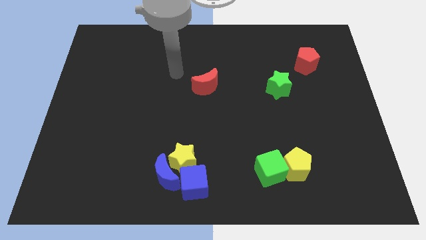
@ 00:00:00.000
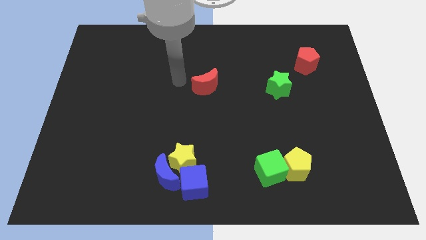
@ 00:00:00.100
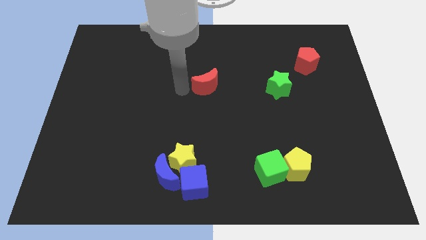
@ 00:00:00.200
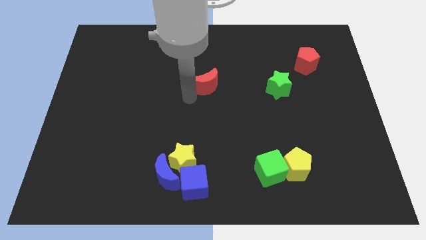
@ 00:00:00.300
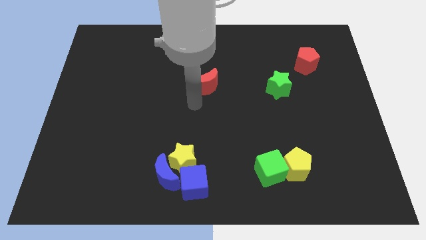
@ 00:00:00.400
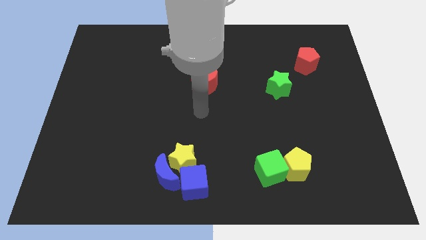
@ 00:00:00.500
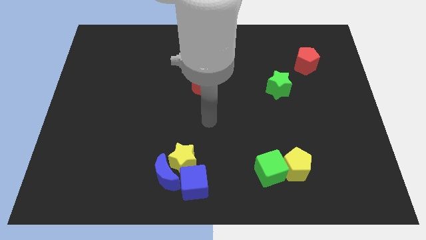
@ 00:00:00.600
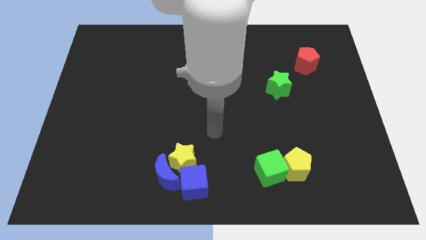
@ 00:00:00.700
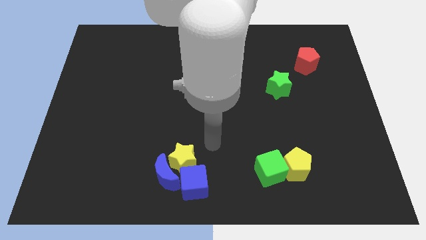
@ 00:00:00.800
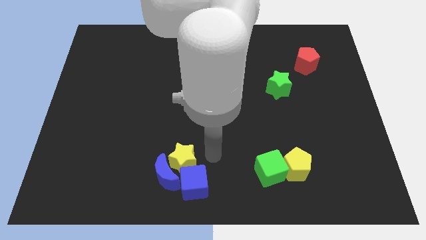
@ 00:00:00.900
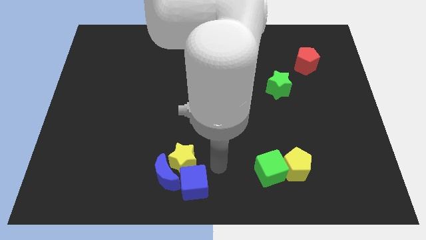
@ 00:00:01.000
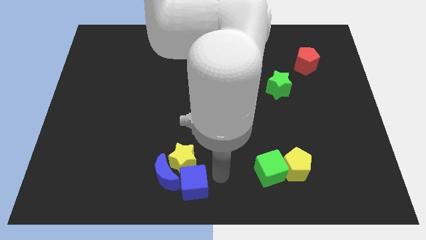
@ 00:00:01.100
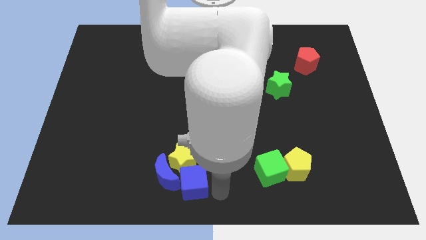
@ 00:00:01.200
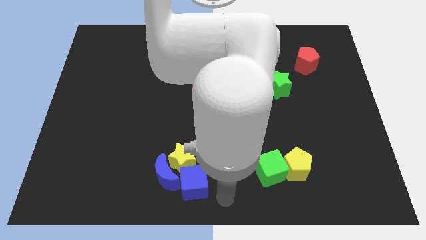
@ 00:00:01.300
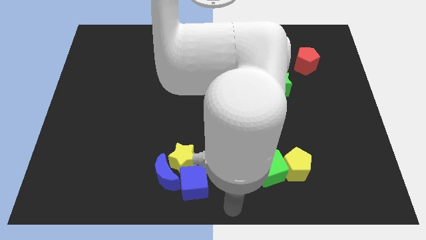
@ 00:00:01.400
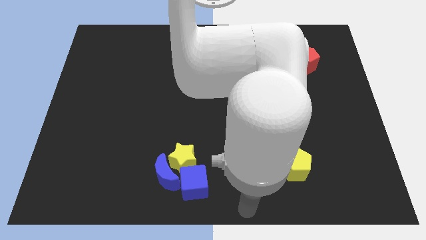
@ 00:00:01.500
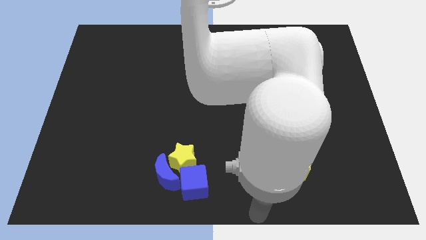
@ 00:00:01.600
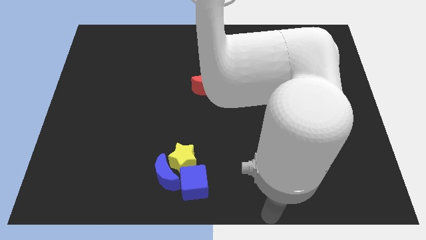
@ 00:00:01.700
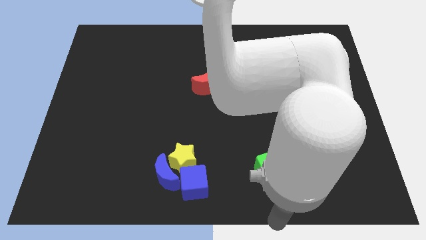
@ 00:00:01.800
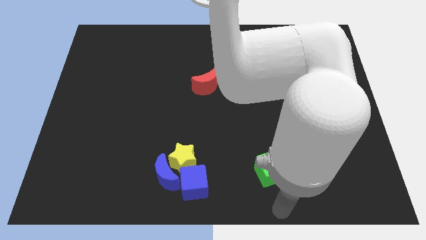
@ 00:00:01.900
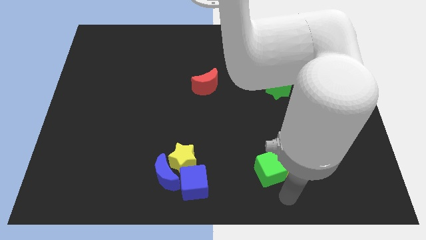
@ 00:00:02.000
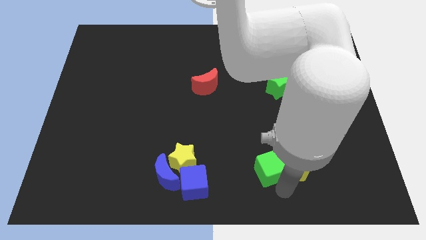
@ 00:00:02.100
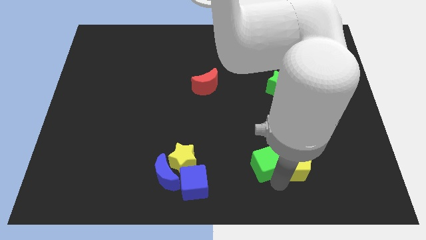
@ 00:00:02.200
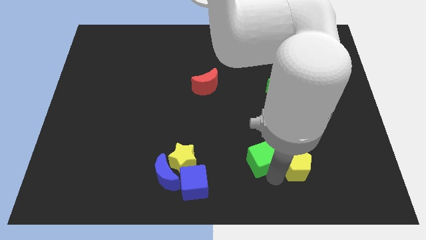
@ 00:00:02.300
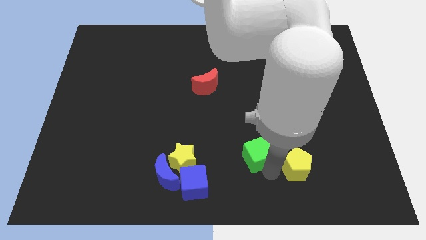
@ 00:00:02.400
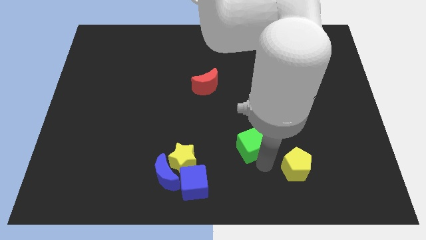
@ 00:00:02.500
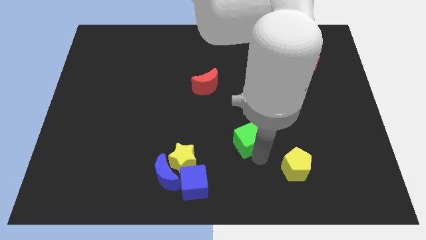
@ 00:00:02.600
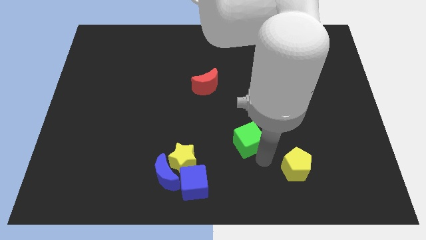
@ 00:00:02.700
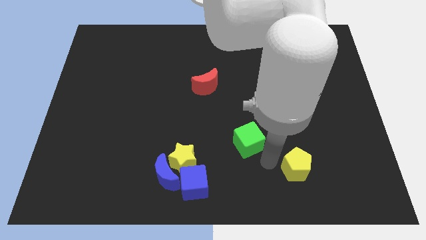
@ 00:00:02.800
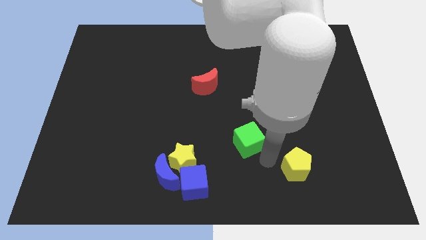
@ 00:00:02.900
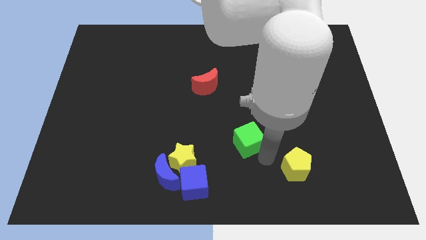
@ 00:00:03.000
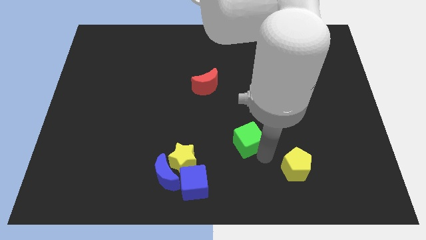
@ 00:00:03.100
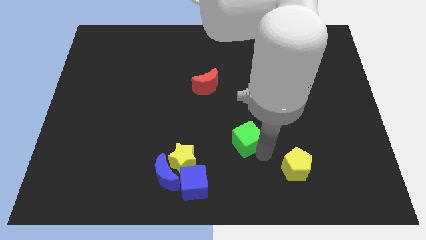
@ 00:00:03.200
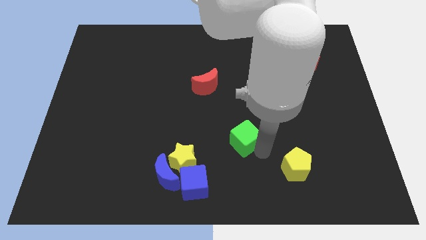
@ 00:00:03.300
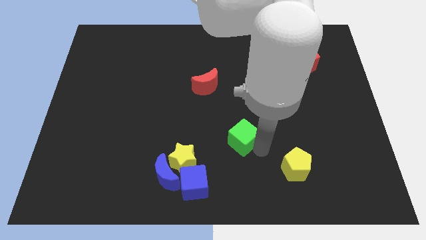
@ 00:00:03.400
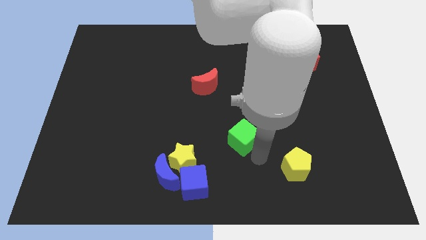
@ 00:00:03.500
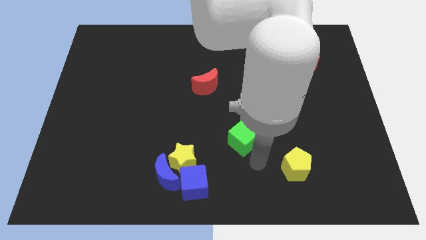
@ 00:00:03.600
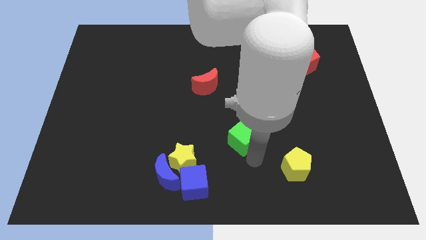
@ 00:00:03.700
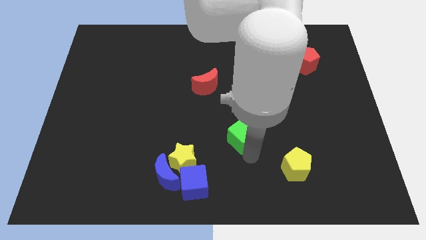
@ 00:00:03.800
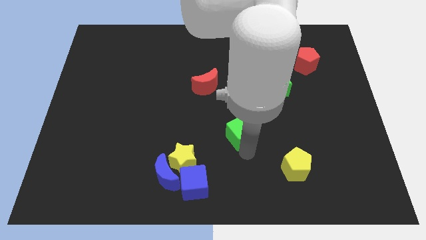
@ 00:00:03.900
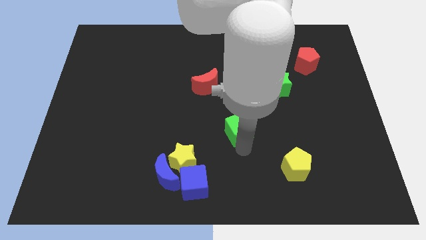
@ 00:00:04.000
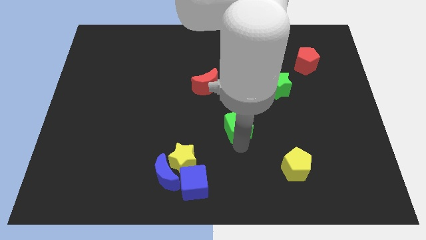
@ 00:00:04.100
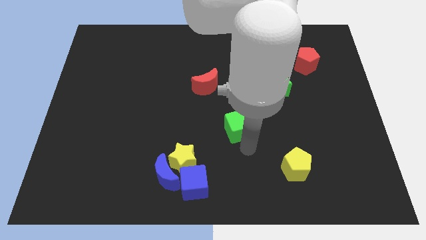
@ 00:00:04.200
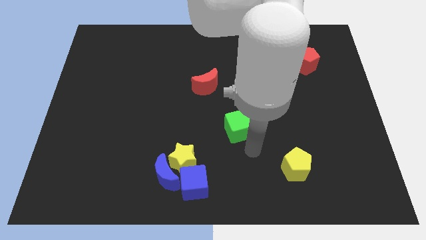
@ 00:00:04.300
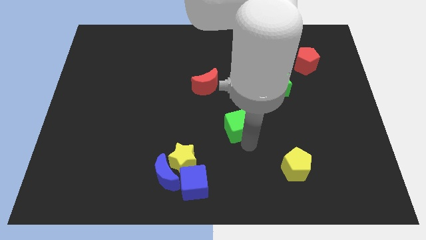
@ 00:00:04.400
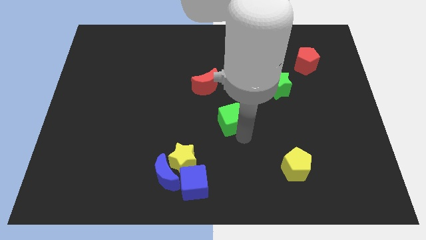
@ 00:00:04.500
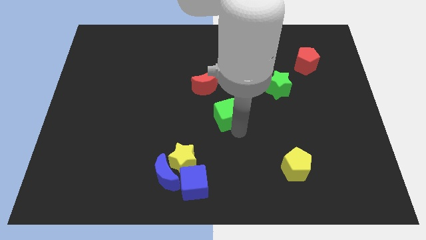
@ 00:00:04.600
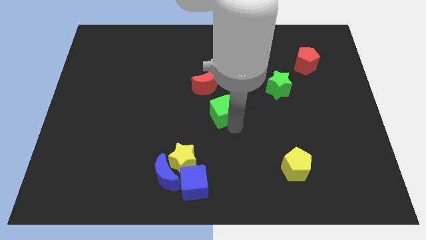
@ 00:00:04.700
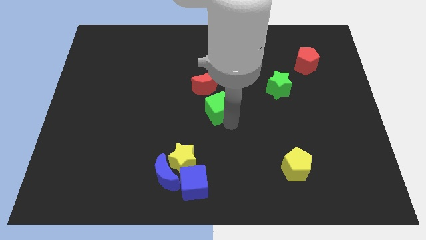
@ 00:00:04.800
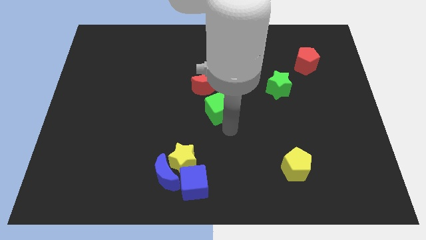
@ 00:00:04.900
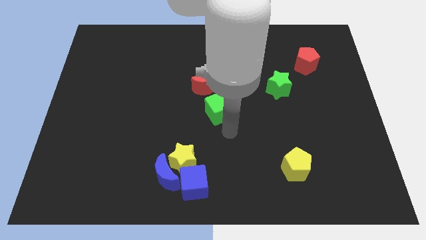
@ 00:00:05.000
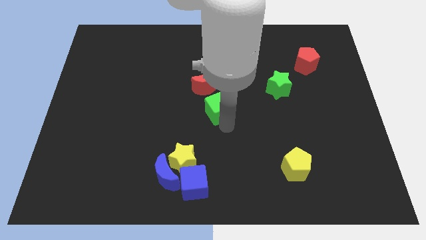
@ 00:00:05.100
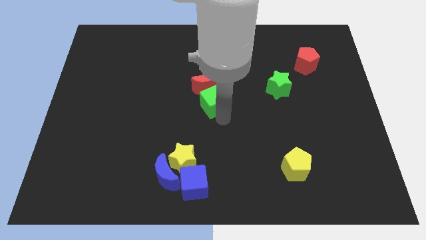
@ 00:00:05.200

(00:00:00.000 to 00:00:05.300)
push the green cube to the red moon

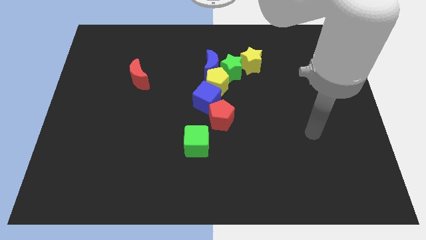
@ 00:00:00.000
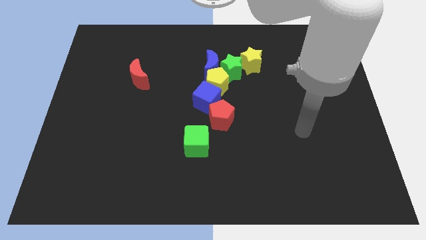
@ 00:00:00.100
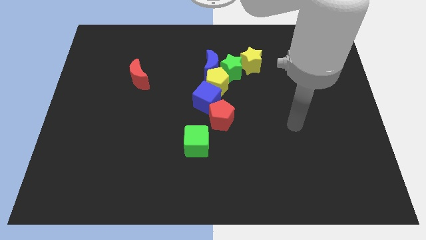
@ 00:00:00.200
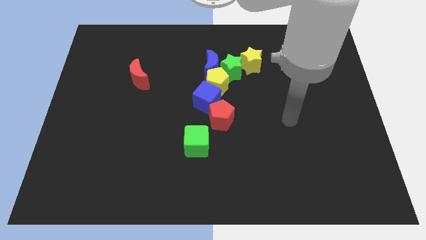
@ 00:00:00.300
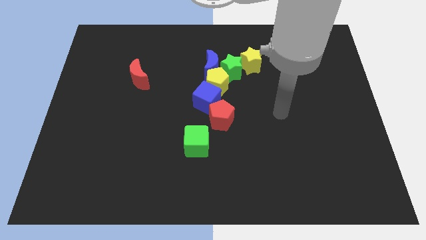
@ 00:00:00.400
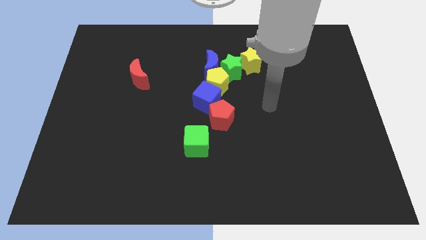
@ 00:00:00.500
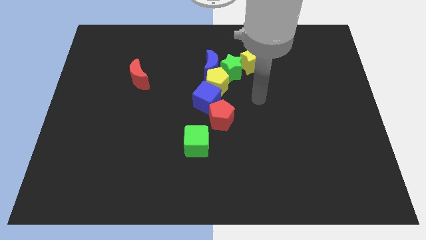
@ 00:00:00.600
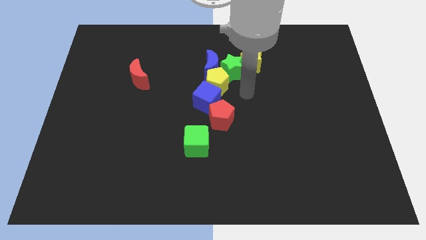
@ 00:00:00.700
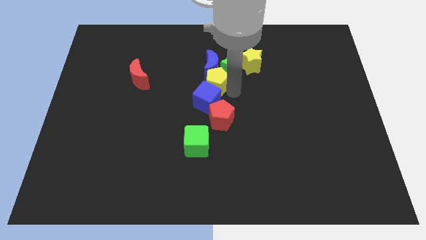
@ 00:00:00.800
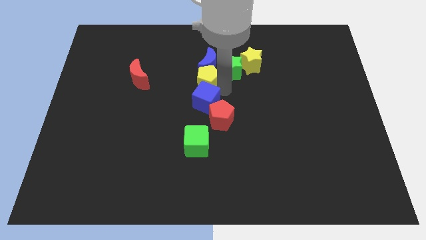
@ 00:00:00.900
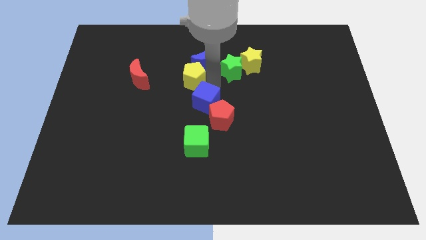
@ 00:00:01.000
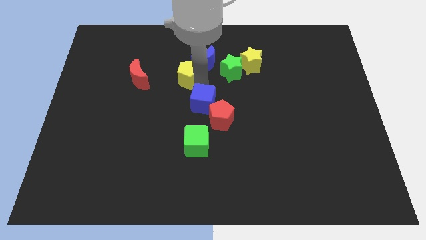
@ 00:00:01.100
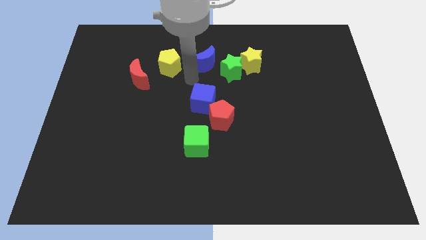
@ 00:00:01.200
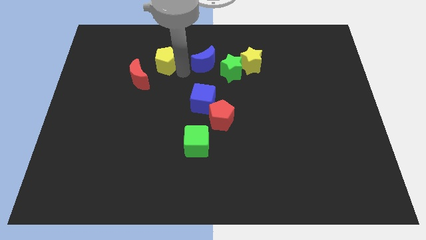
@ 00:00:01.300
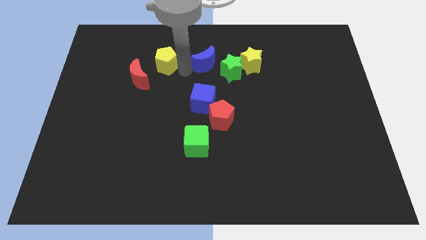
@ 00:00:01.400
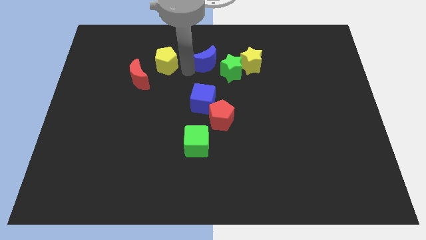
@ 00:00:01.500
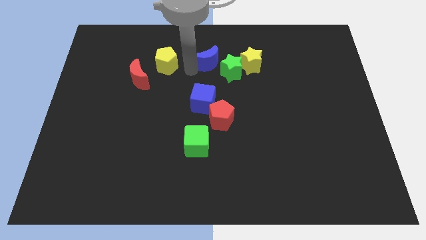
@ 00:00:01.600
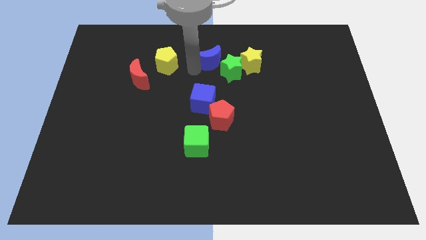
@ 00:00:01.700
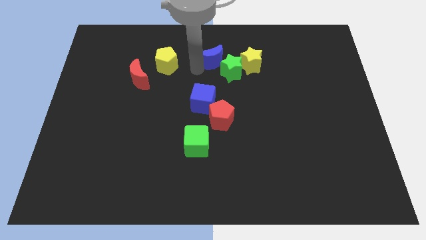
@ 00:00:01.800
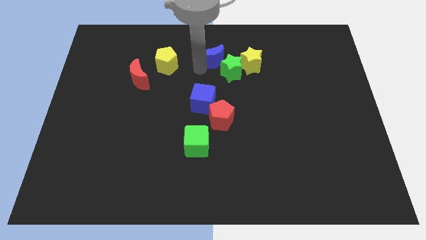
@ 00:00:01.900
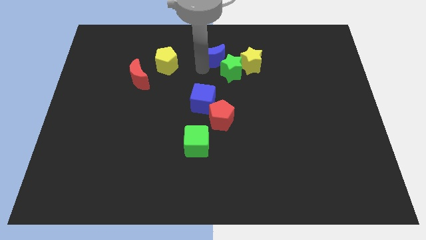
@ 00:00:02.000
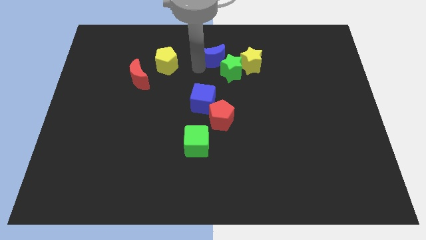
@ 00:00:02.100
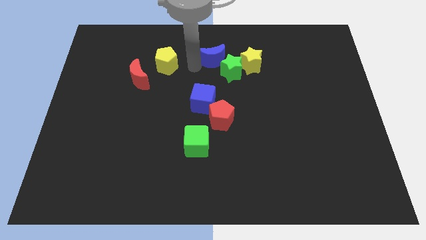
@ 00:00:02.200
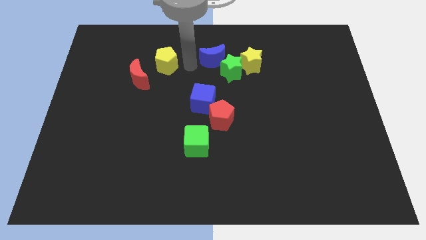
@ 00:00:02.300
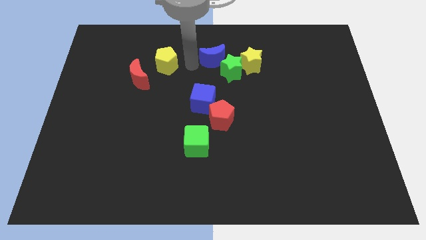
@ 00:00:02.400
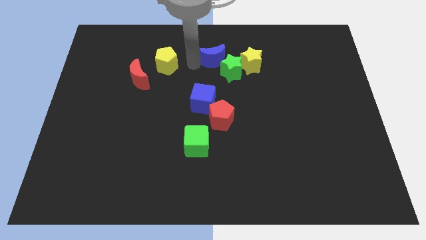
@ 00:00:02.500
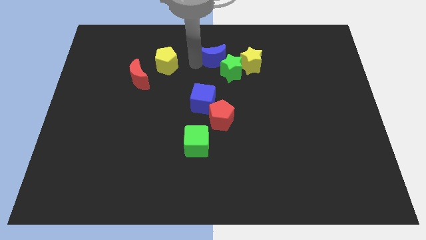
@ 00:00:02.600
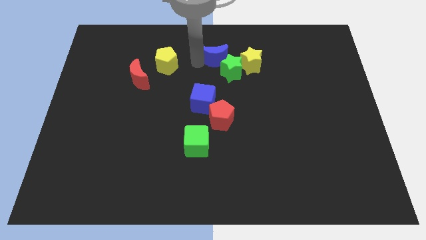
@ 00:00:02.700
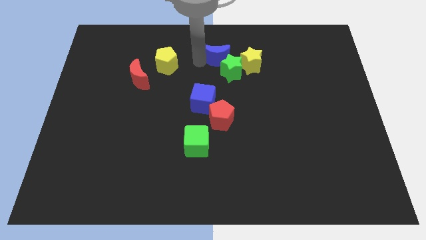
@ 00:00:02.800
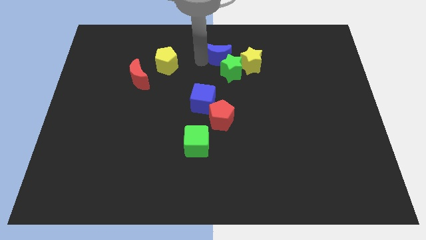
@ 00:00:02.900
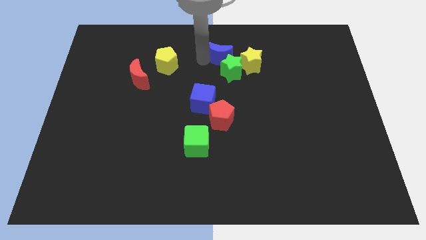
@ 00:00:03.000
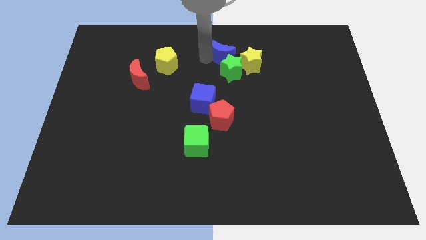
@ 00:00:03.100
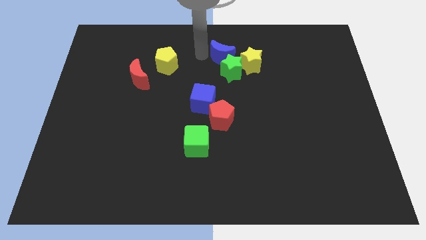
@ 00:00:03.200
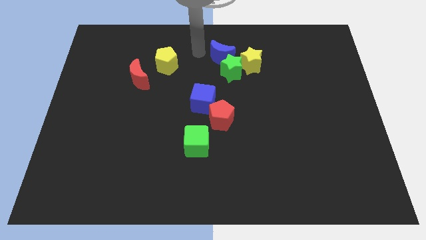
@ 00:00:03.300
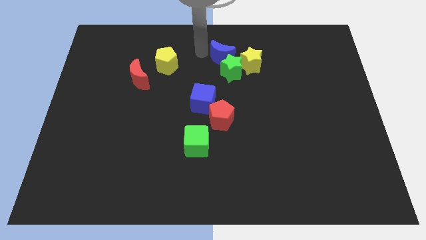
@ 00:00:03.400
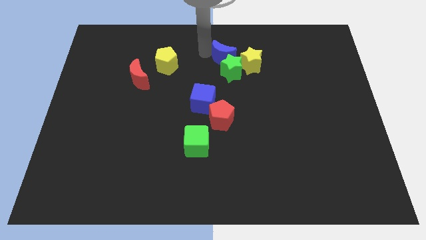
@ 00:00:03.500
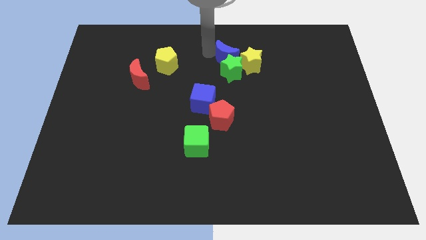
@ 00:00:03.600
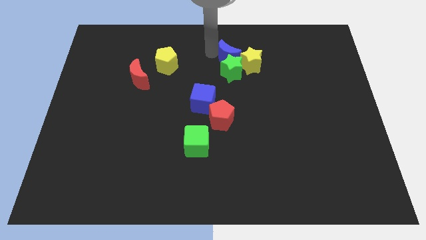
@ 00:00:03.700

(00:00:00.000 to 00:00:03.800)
push the blue moon towards the yellow star
